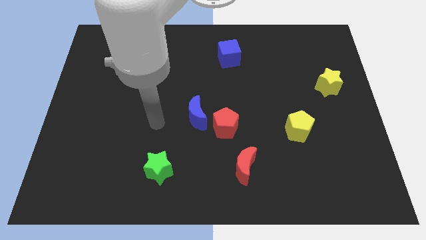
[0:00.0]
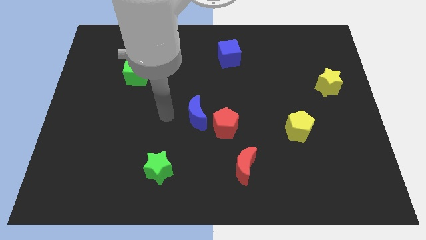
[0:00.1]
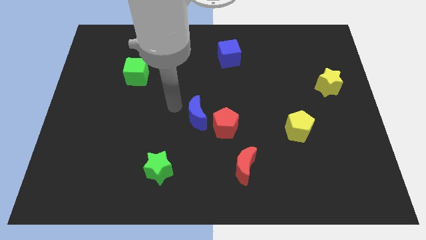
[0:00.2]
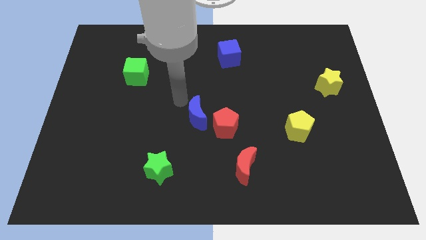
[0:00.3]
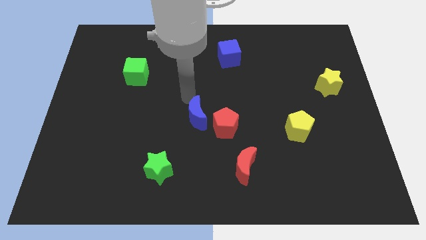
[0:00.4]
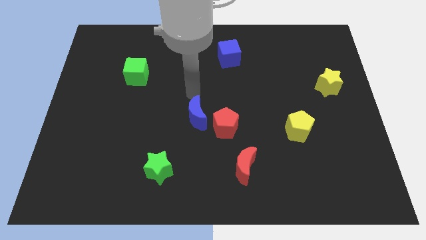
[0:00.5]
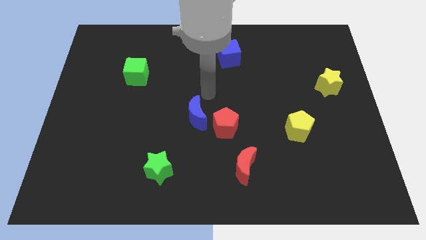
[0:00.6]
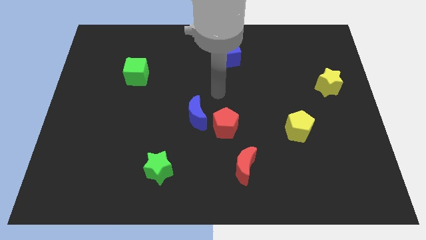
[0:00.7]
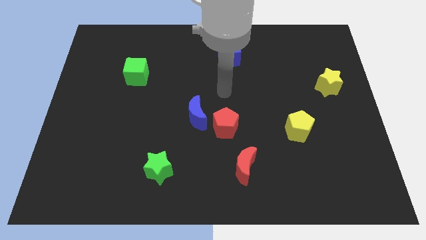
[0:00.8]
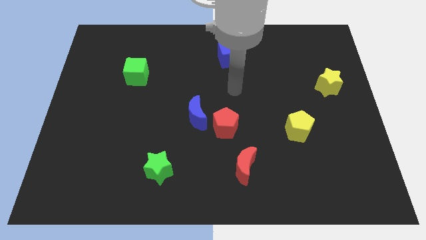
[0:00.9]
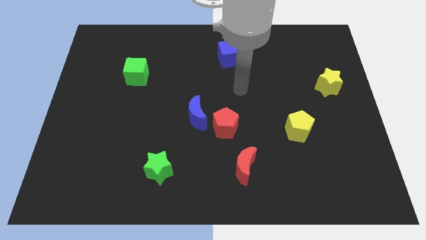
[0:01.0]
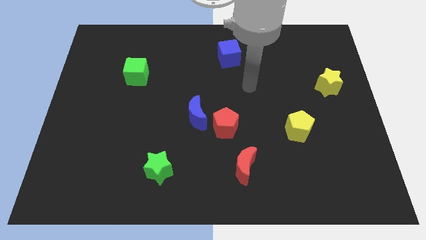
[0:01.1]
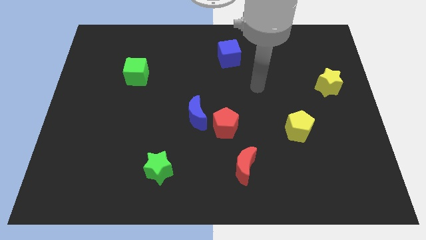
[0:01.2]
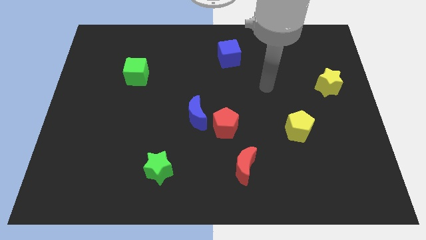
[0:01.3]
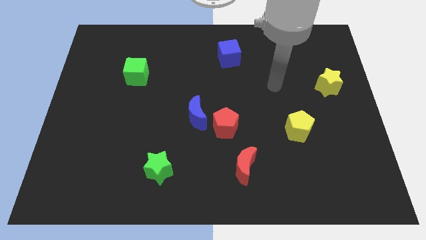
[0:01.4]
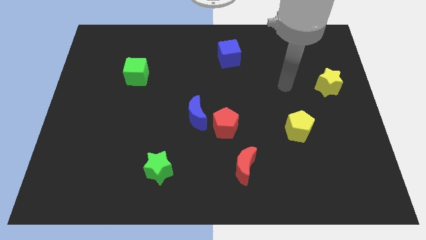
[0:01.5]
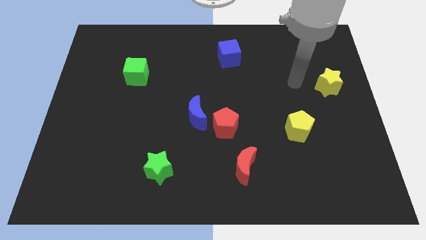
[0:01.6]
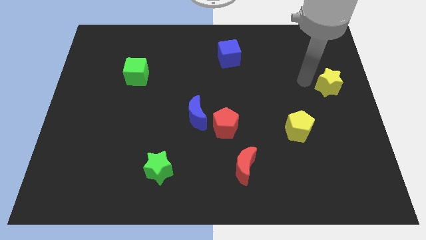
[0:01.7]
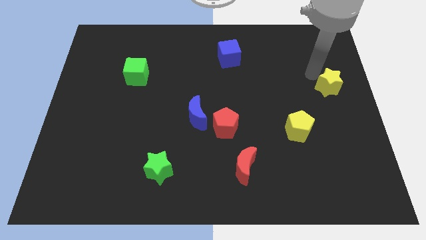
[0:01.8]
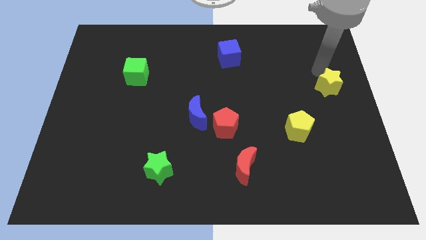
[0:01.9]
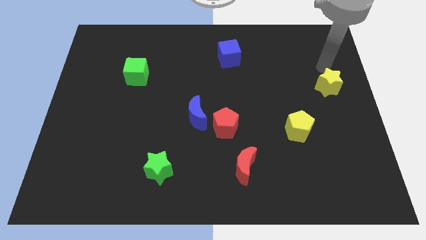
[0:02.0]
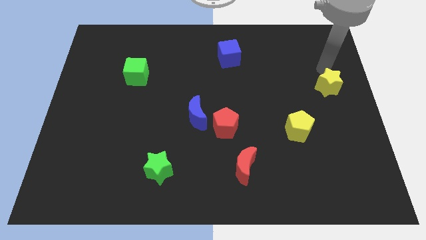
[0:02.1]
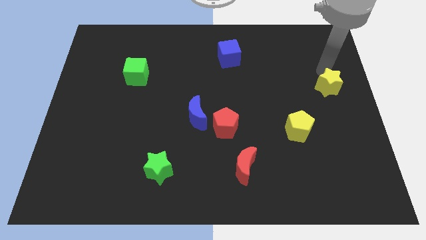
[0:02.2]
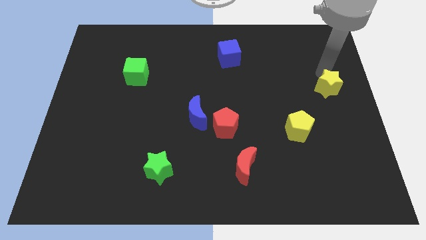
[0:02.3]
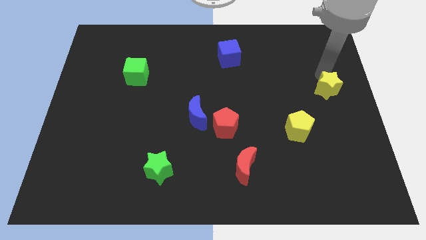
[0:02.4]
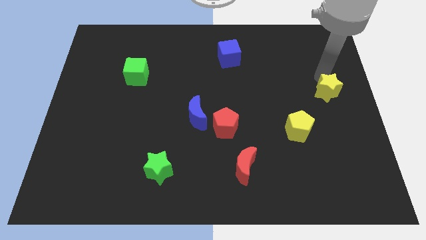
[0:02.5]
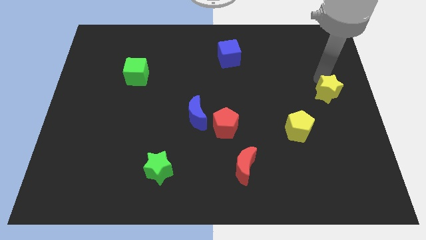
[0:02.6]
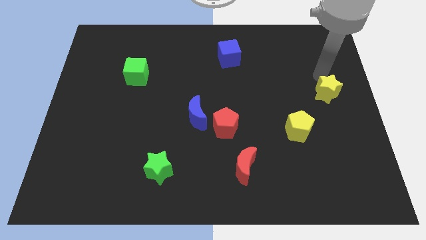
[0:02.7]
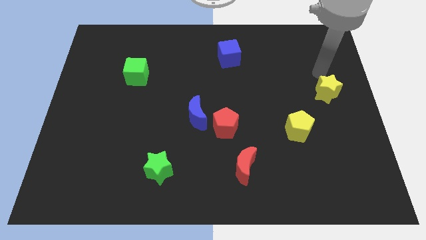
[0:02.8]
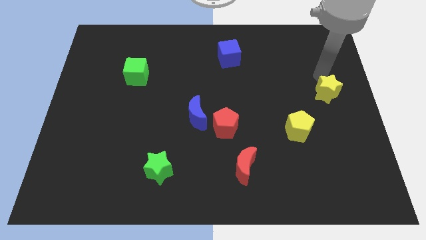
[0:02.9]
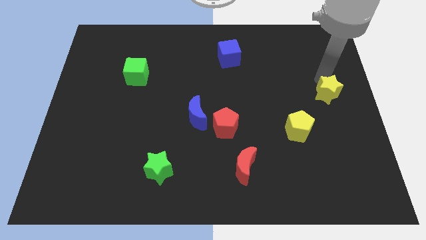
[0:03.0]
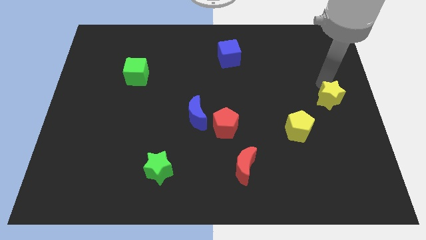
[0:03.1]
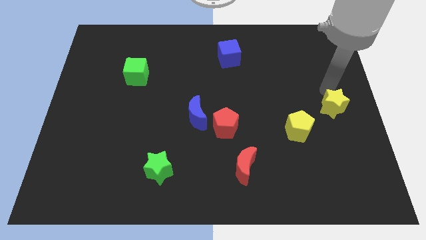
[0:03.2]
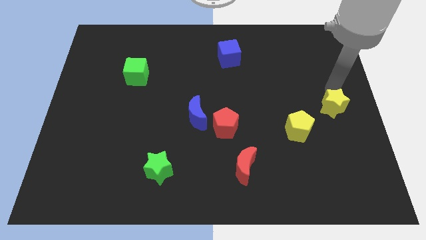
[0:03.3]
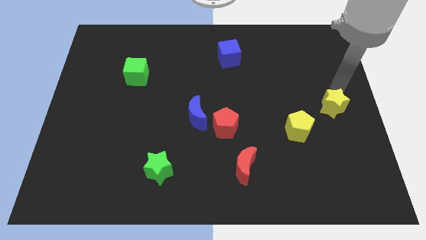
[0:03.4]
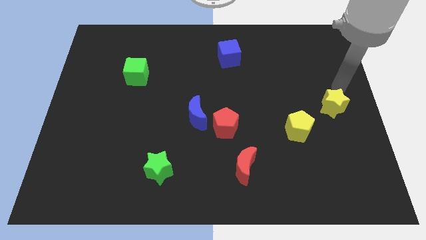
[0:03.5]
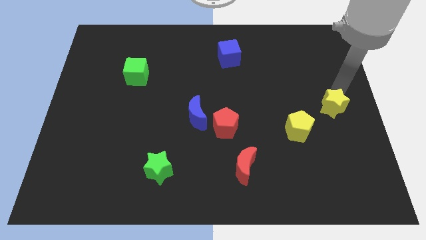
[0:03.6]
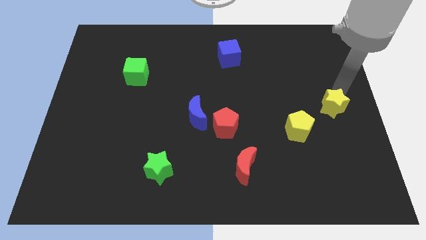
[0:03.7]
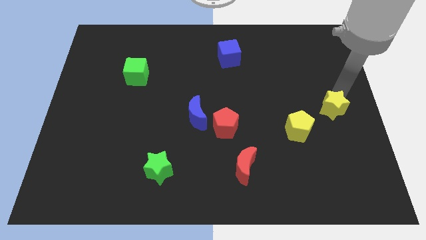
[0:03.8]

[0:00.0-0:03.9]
slightly move the yellow star downwards

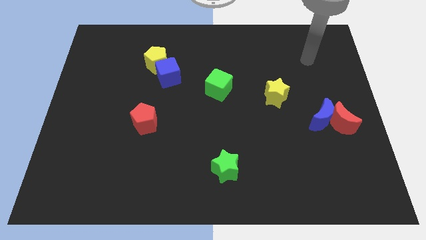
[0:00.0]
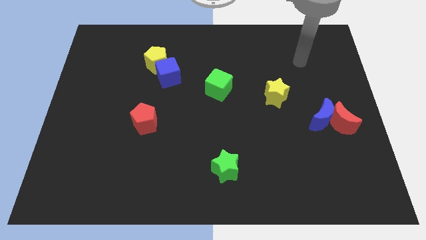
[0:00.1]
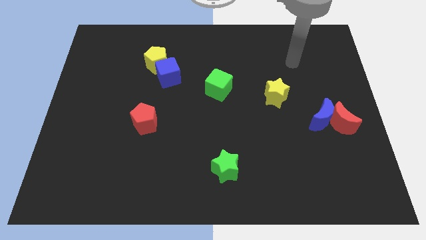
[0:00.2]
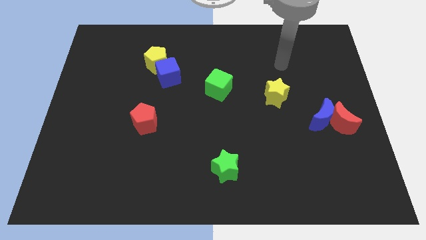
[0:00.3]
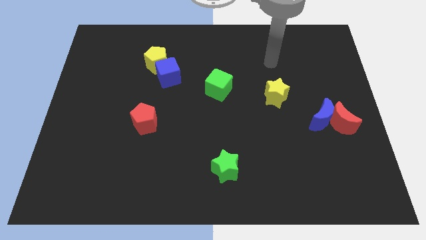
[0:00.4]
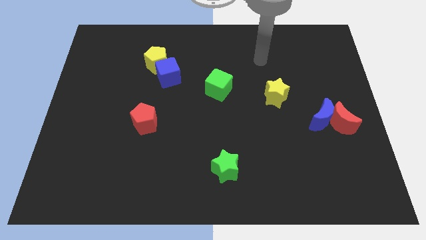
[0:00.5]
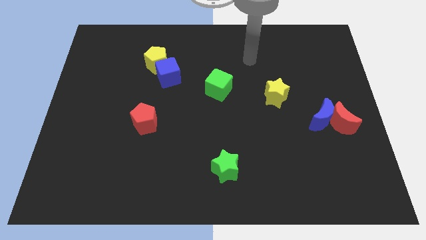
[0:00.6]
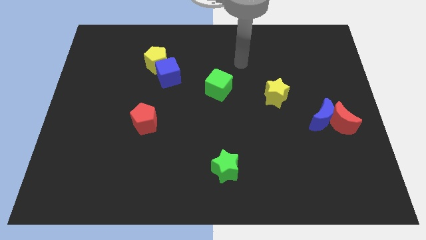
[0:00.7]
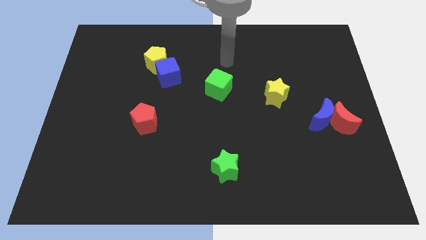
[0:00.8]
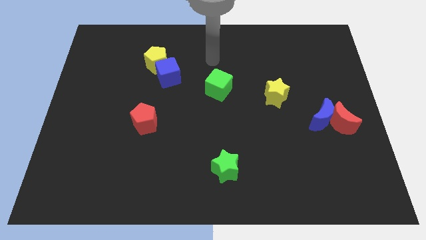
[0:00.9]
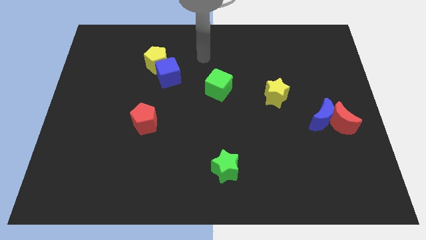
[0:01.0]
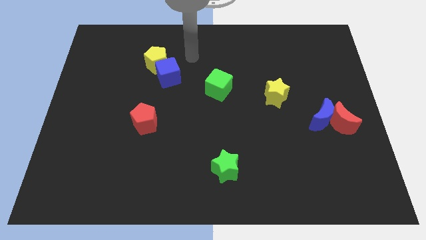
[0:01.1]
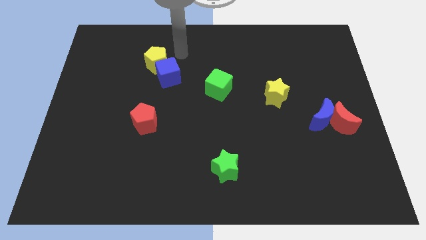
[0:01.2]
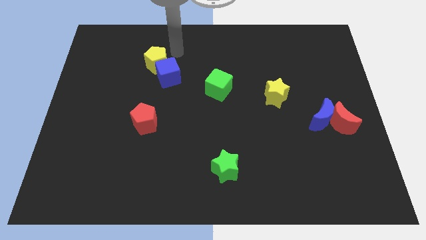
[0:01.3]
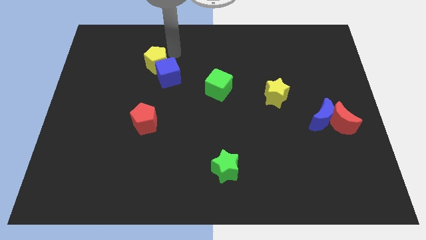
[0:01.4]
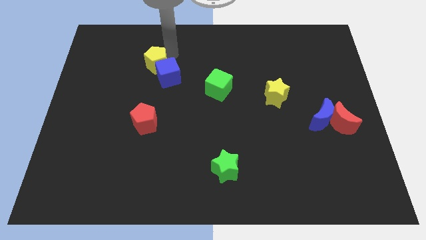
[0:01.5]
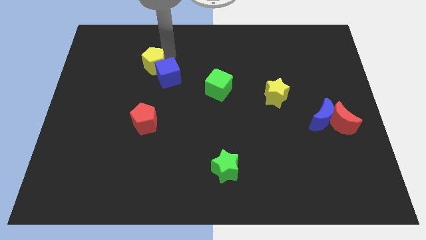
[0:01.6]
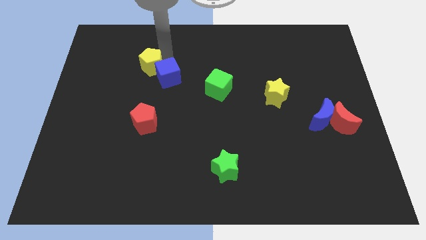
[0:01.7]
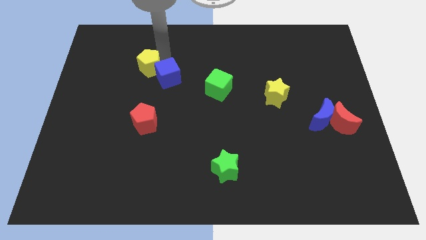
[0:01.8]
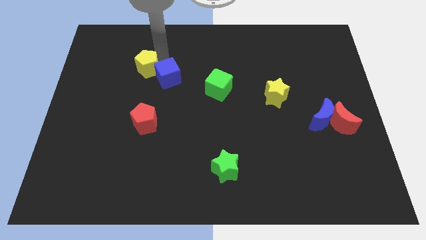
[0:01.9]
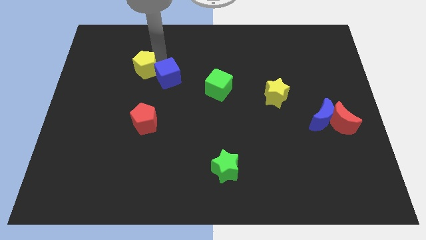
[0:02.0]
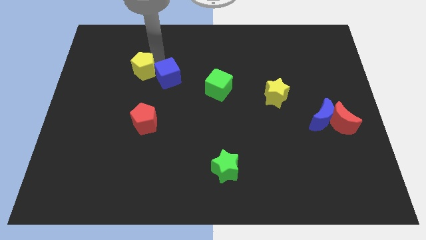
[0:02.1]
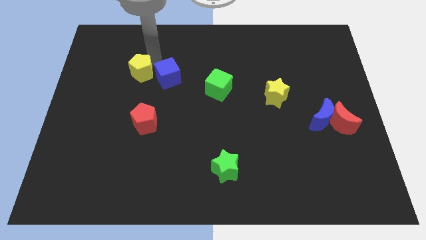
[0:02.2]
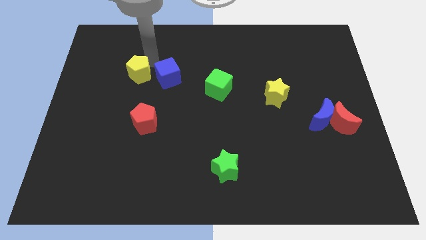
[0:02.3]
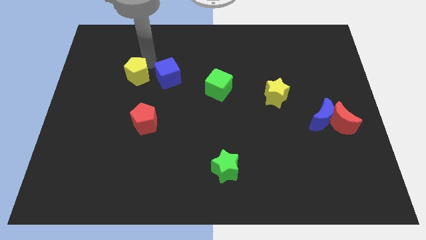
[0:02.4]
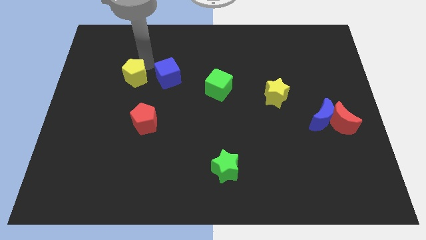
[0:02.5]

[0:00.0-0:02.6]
move the yellow pentagon a bit diagonally down and to the left

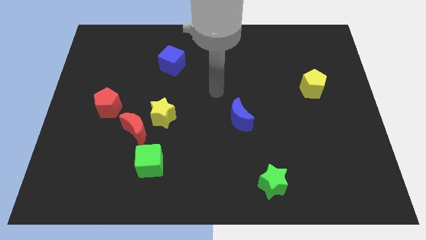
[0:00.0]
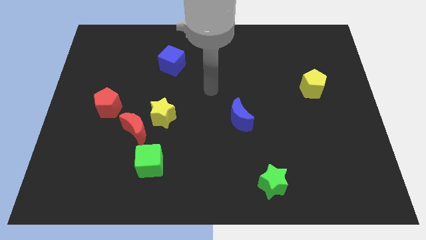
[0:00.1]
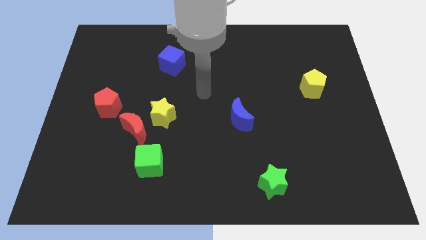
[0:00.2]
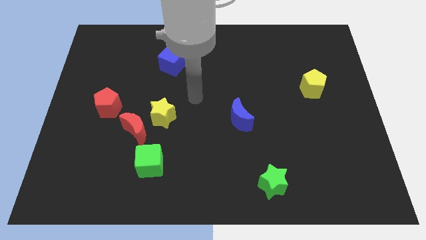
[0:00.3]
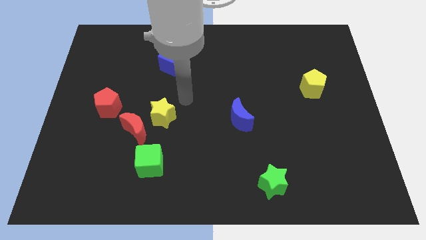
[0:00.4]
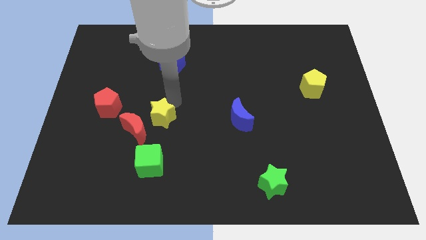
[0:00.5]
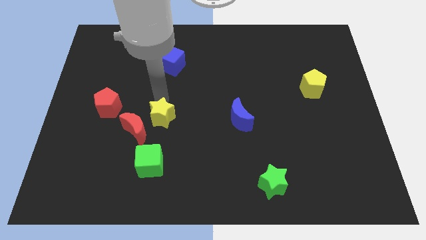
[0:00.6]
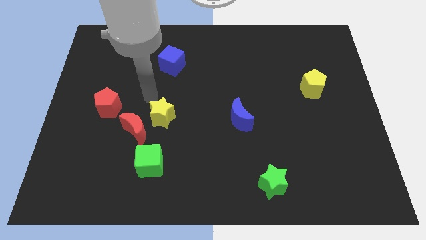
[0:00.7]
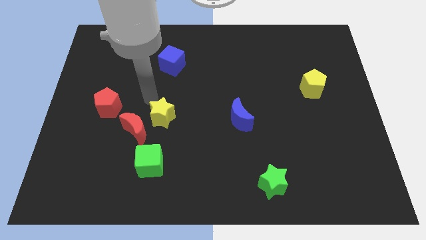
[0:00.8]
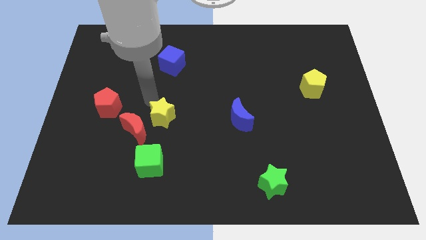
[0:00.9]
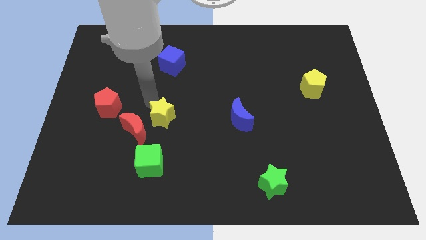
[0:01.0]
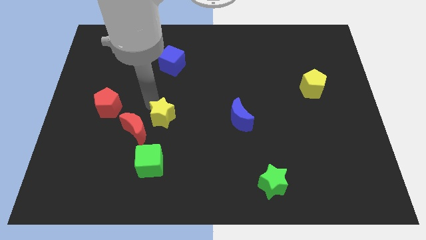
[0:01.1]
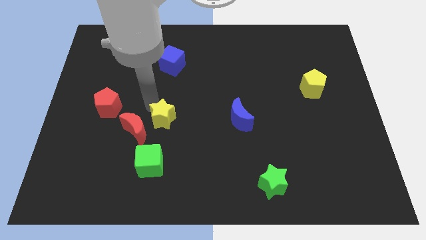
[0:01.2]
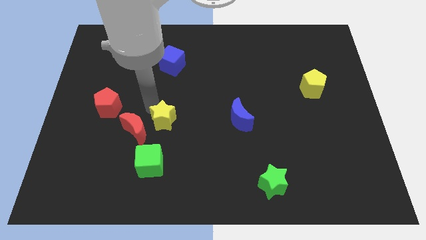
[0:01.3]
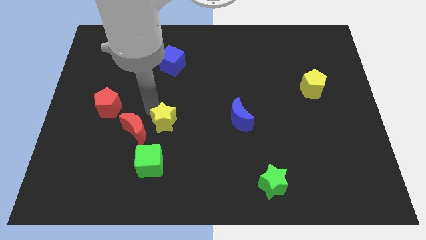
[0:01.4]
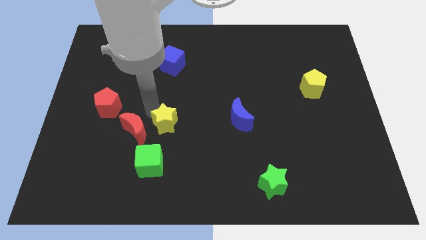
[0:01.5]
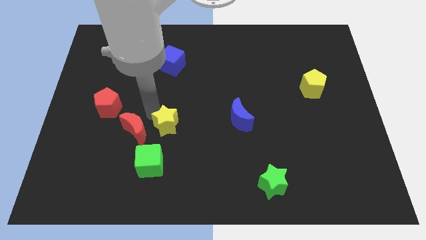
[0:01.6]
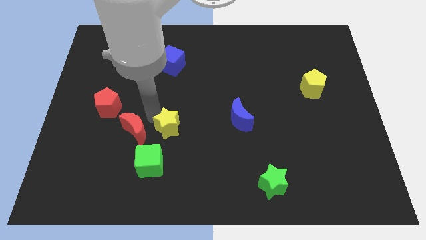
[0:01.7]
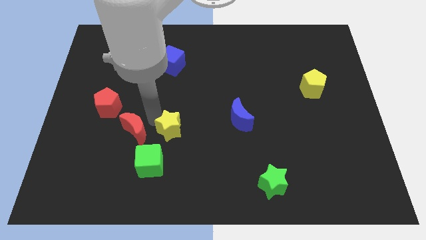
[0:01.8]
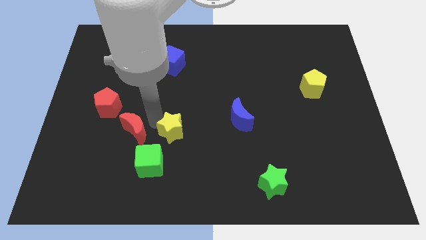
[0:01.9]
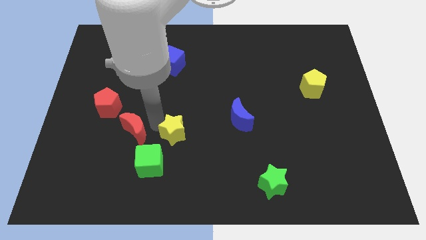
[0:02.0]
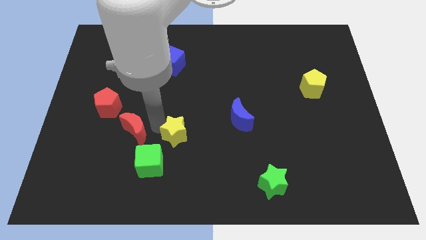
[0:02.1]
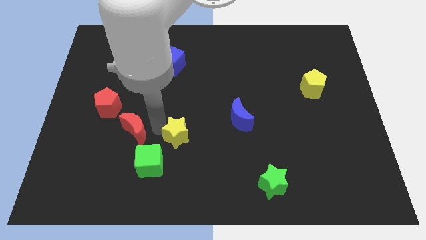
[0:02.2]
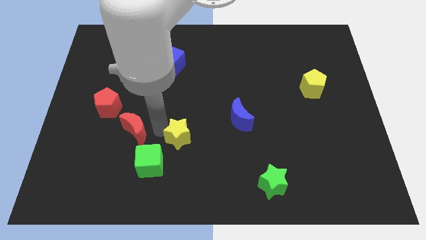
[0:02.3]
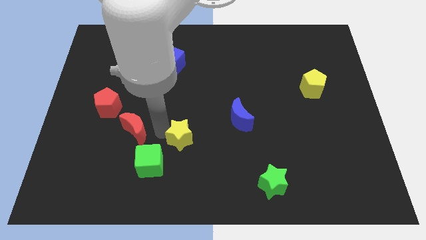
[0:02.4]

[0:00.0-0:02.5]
slide the yellow star a little down and then to the right
